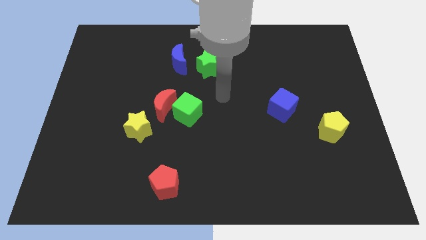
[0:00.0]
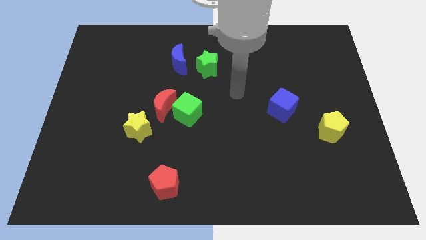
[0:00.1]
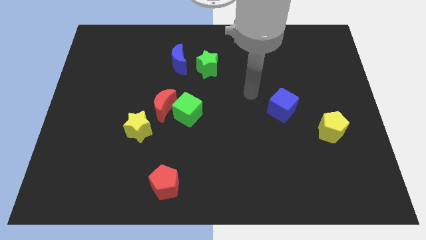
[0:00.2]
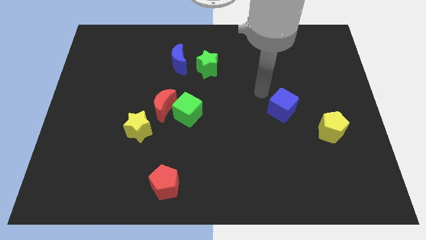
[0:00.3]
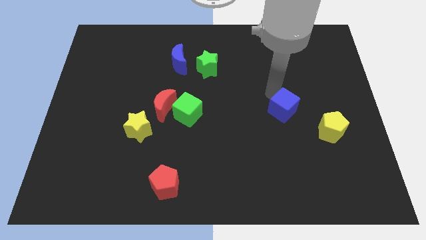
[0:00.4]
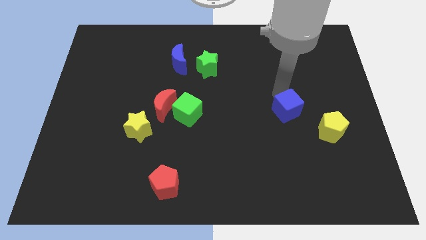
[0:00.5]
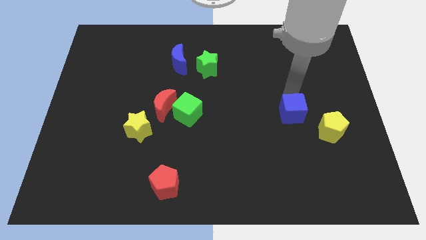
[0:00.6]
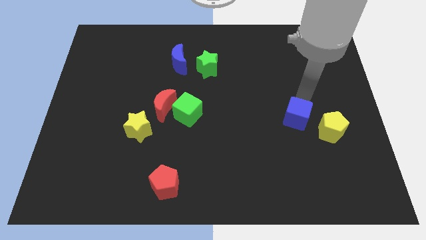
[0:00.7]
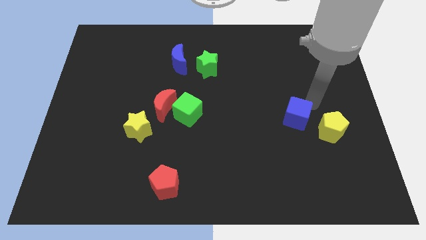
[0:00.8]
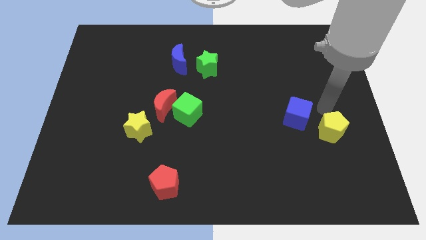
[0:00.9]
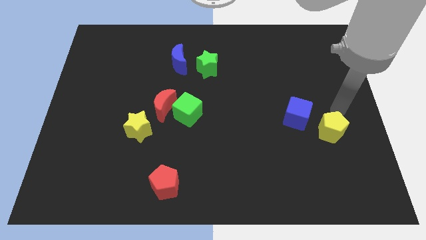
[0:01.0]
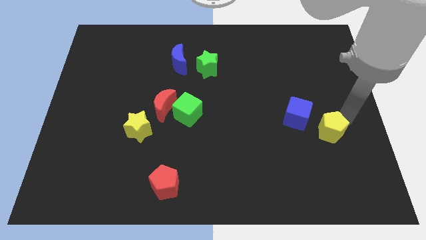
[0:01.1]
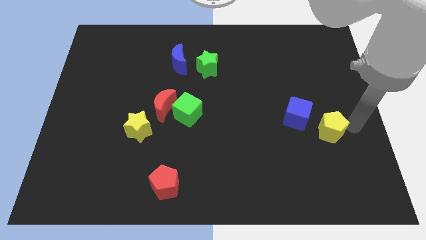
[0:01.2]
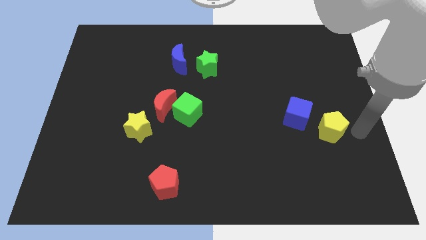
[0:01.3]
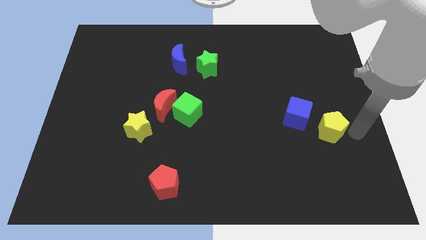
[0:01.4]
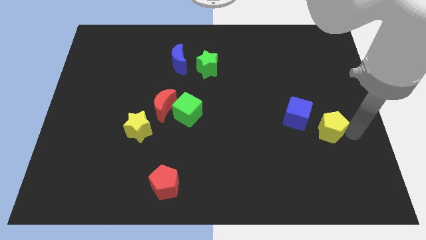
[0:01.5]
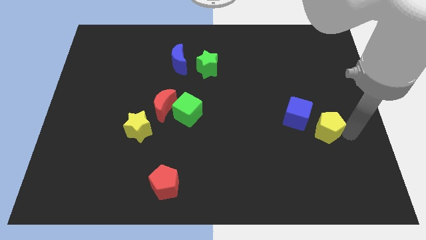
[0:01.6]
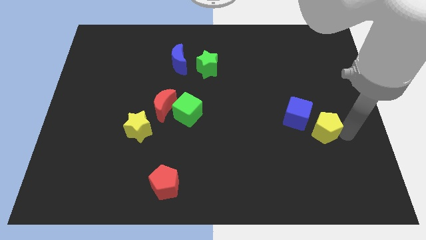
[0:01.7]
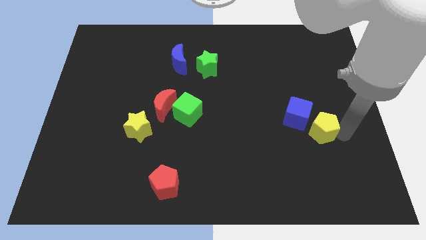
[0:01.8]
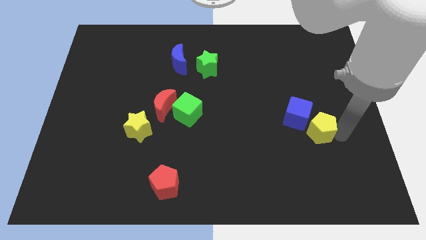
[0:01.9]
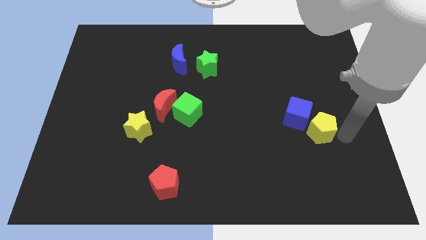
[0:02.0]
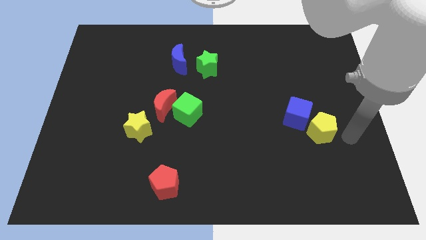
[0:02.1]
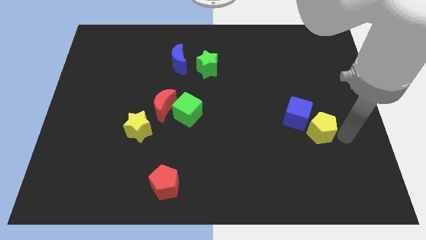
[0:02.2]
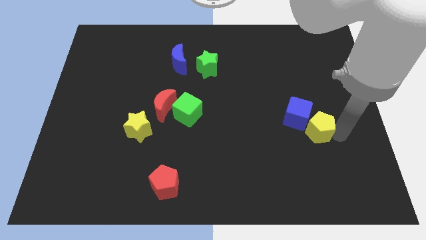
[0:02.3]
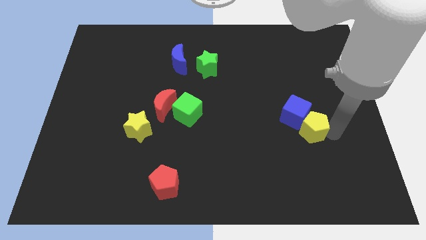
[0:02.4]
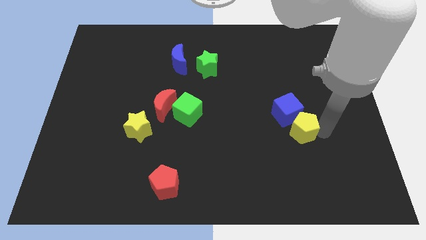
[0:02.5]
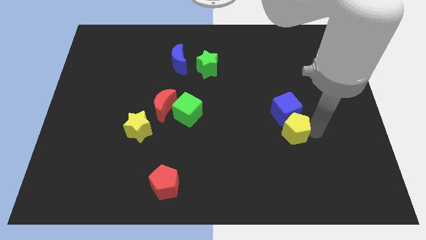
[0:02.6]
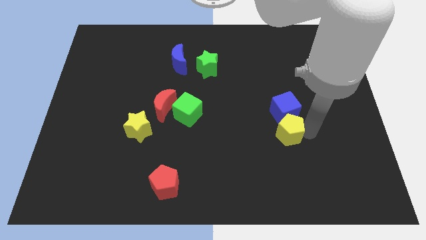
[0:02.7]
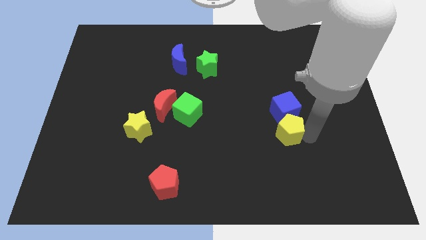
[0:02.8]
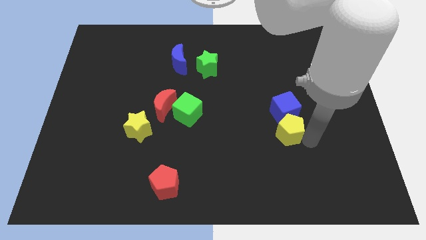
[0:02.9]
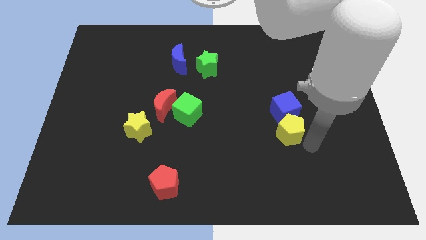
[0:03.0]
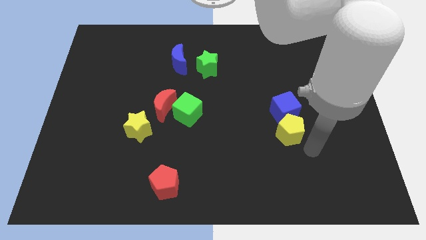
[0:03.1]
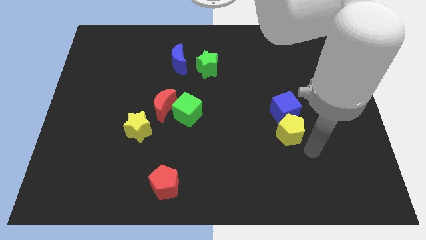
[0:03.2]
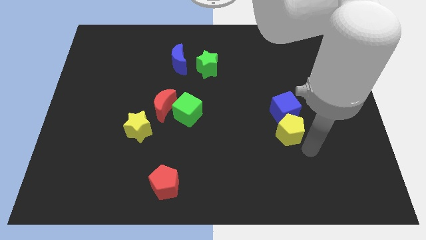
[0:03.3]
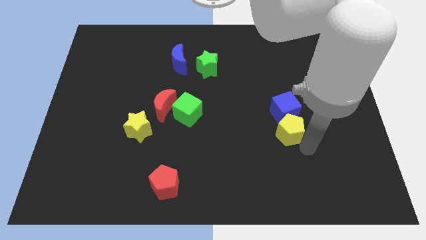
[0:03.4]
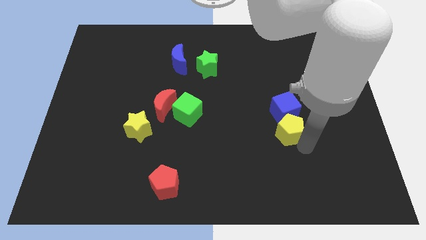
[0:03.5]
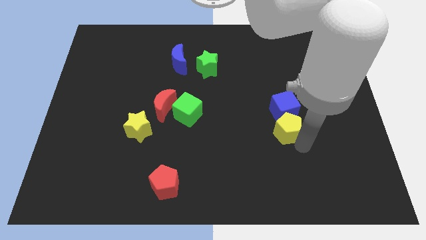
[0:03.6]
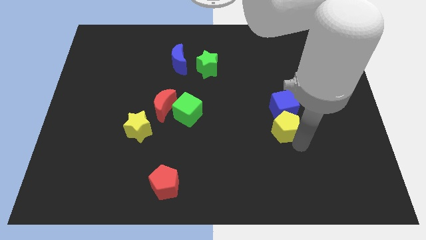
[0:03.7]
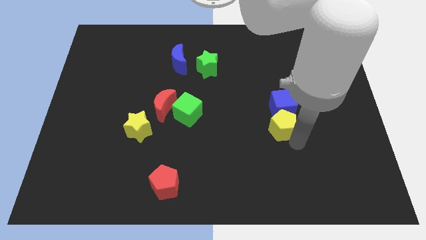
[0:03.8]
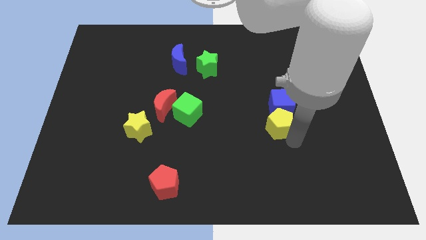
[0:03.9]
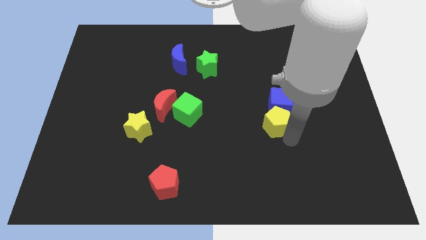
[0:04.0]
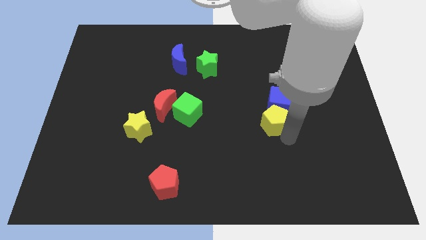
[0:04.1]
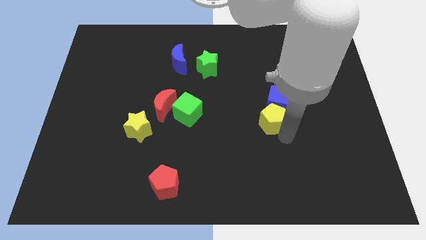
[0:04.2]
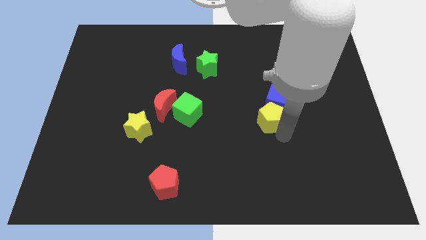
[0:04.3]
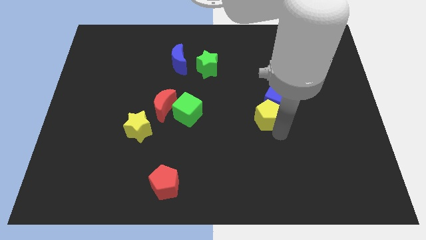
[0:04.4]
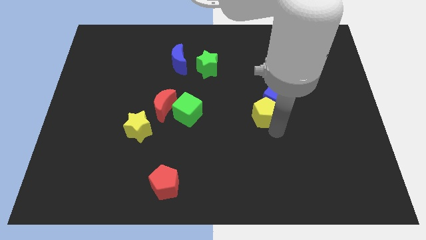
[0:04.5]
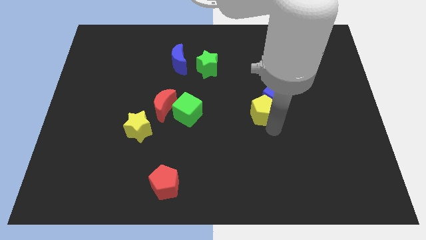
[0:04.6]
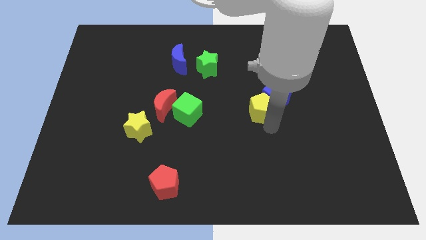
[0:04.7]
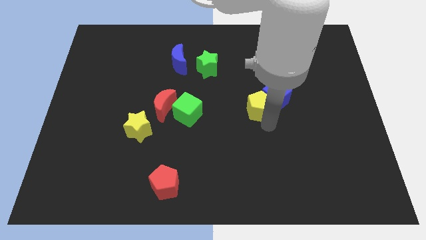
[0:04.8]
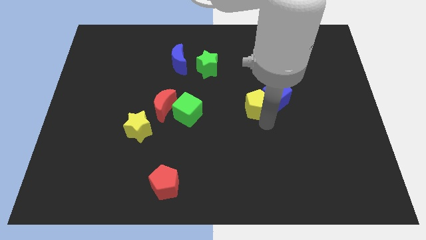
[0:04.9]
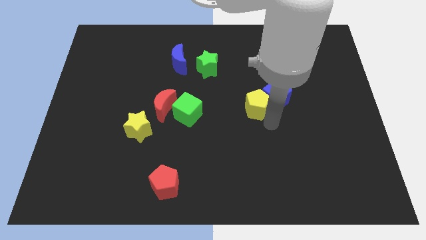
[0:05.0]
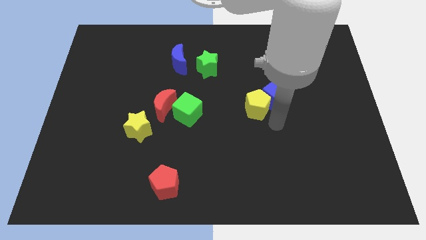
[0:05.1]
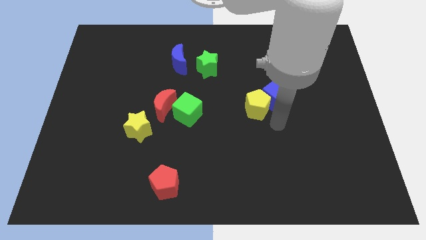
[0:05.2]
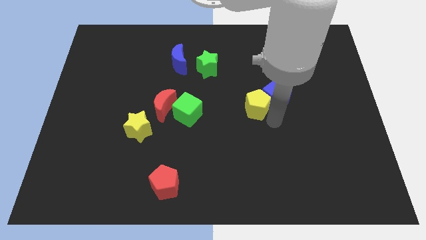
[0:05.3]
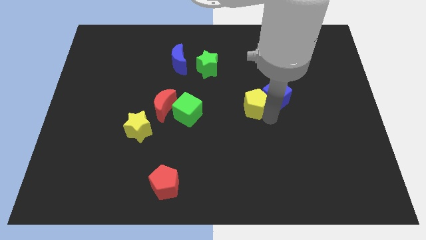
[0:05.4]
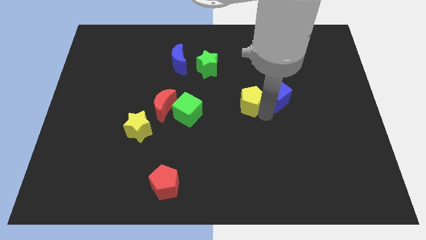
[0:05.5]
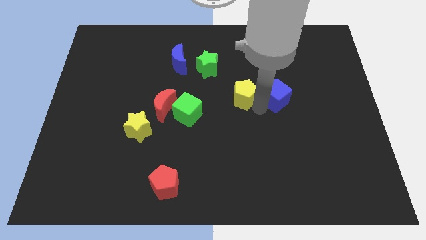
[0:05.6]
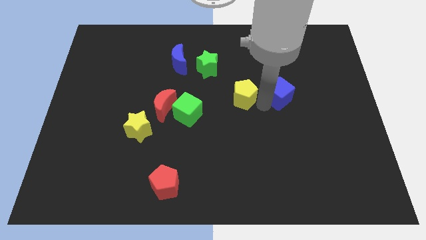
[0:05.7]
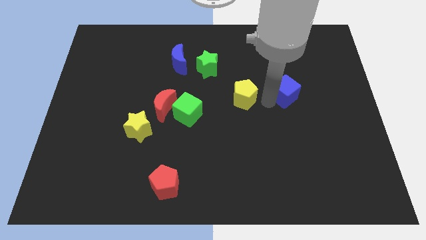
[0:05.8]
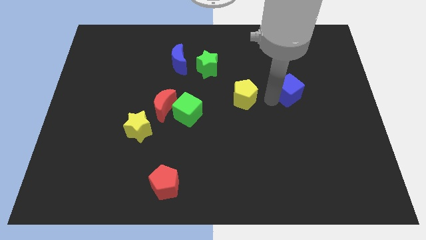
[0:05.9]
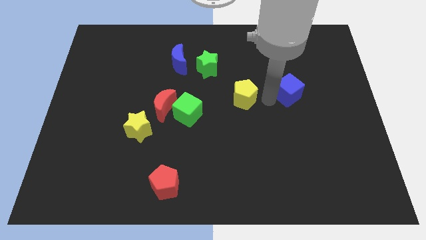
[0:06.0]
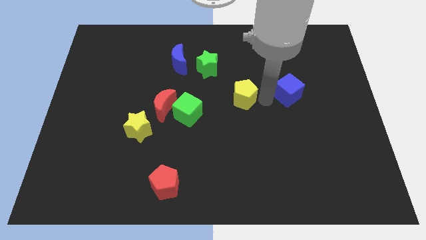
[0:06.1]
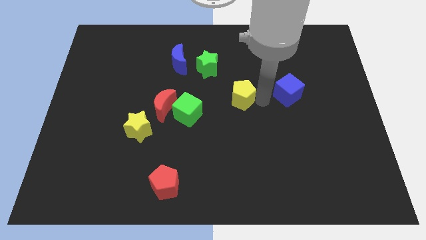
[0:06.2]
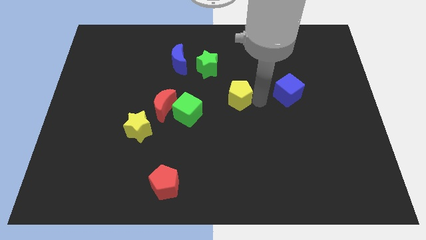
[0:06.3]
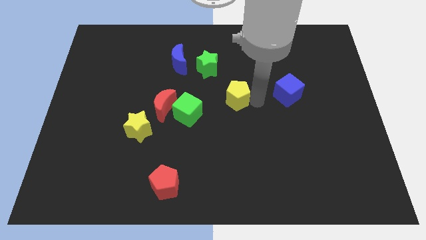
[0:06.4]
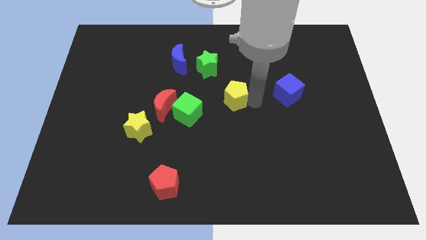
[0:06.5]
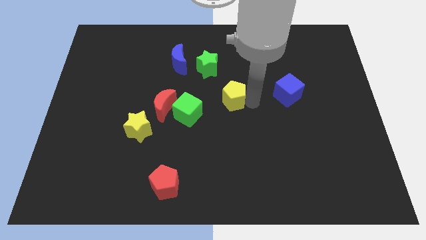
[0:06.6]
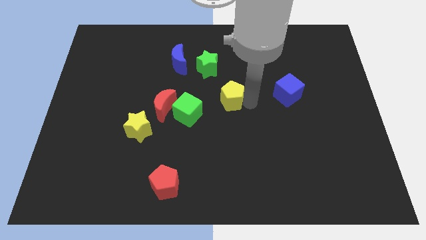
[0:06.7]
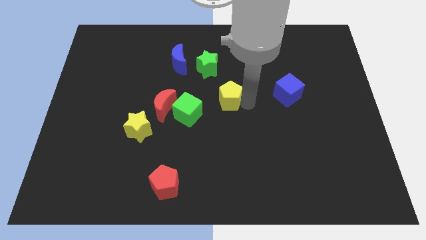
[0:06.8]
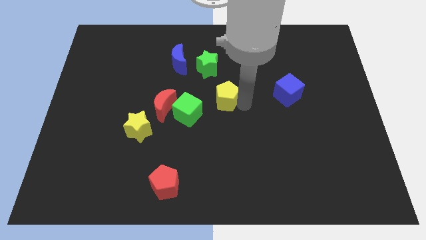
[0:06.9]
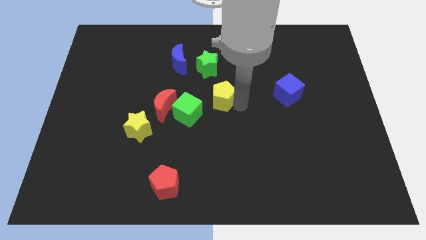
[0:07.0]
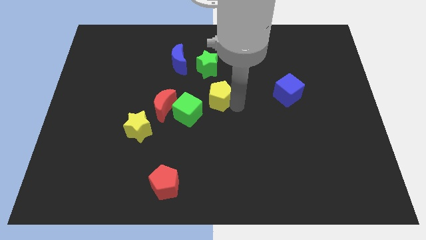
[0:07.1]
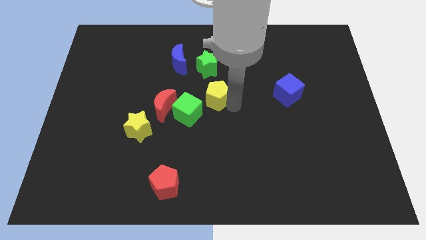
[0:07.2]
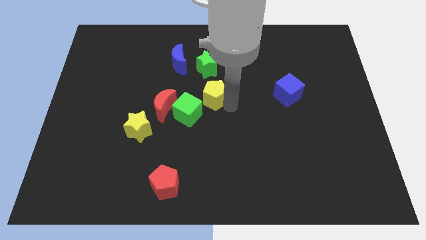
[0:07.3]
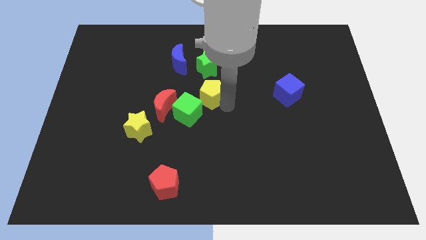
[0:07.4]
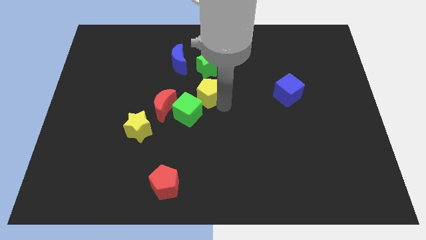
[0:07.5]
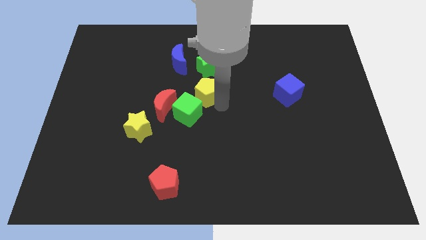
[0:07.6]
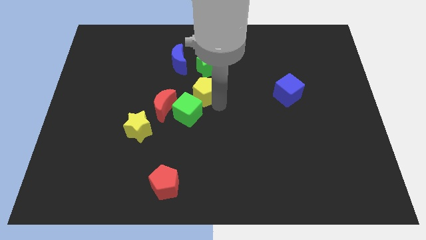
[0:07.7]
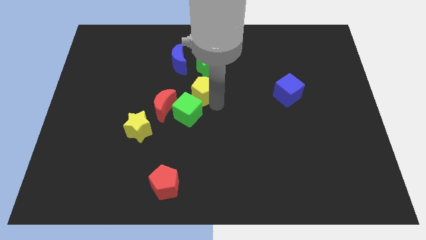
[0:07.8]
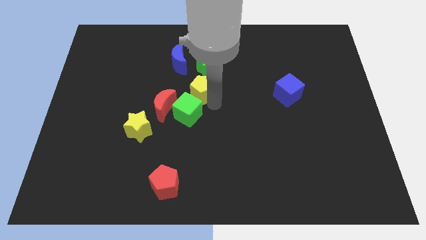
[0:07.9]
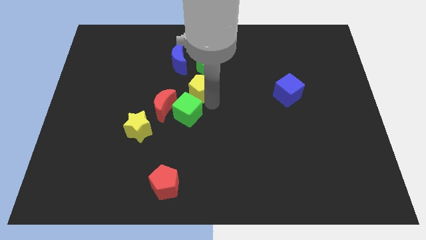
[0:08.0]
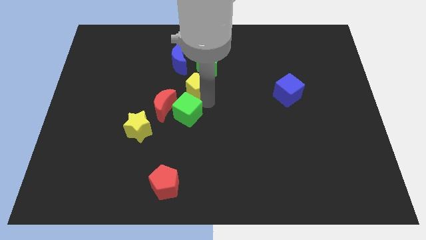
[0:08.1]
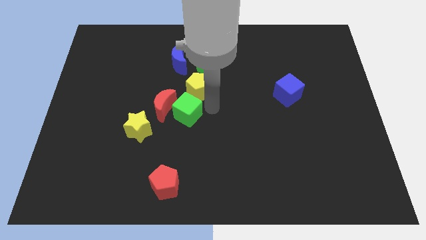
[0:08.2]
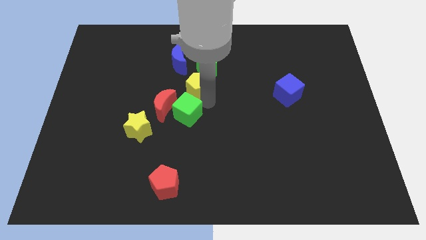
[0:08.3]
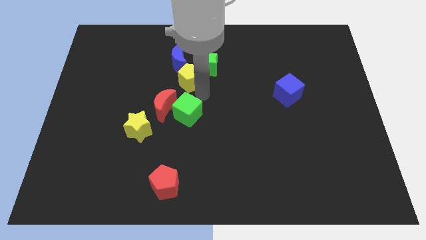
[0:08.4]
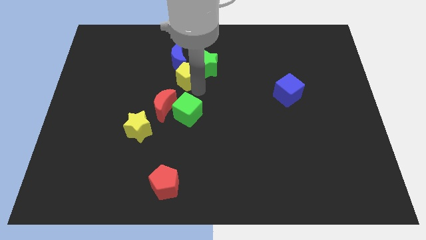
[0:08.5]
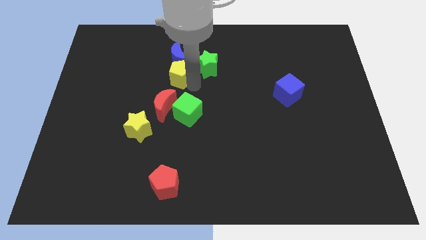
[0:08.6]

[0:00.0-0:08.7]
slide the yellow pentagon to the blue moon
